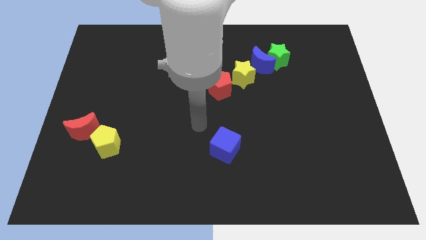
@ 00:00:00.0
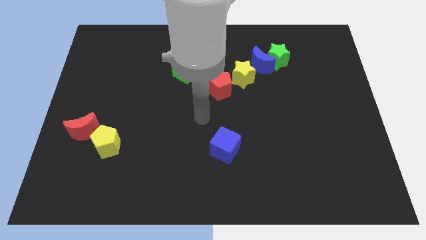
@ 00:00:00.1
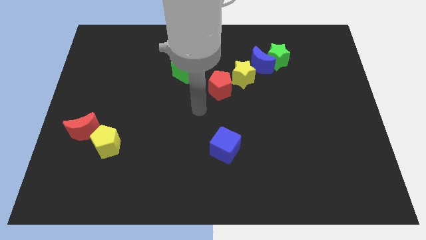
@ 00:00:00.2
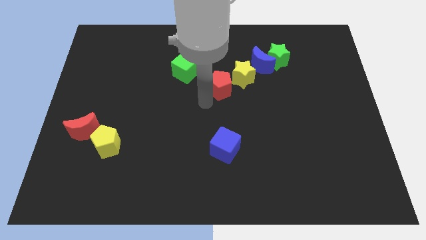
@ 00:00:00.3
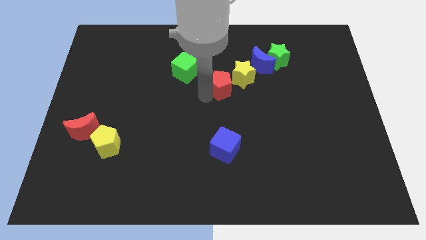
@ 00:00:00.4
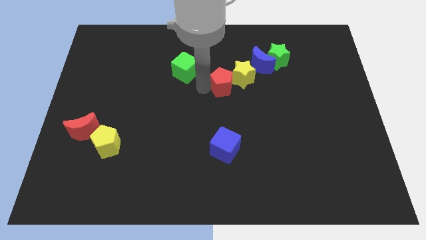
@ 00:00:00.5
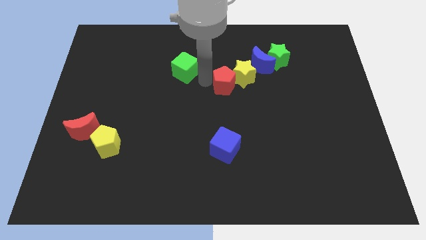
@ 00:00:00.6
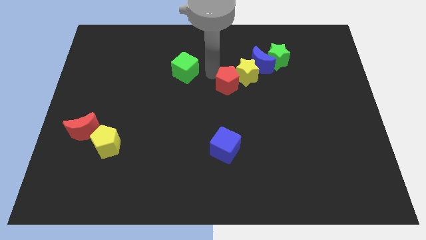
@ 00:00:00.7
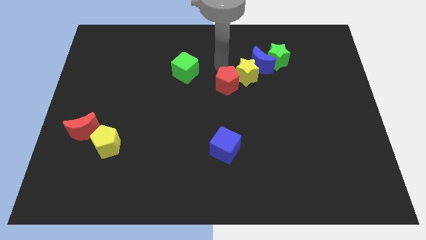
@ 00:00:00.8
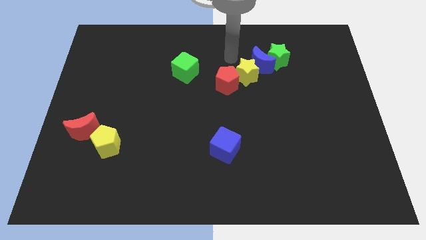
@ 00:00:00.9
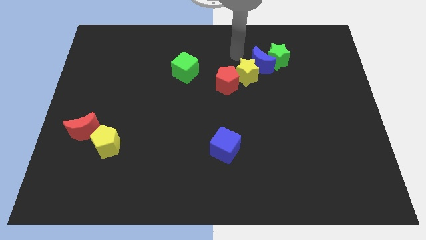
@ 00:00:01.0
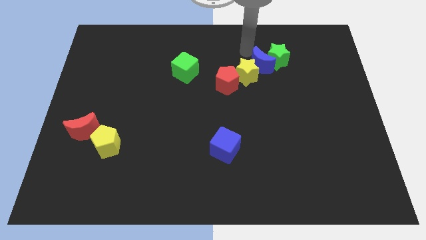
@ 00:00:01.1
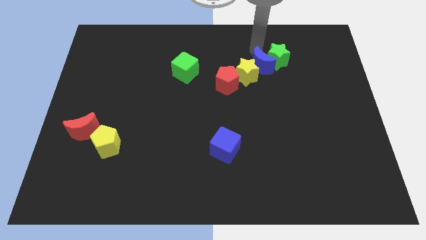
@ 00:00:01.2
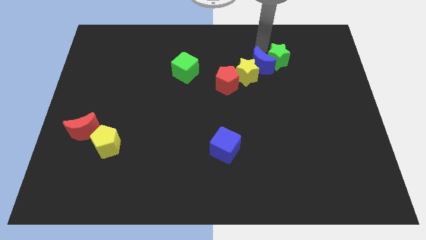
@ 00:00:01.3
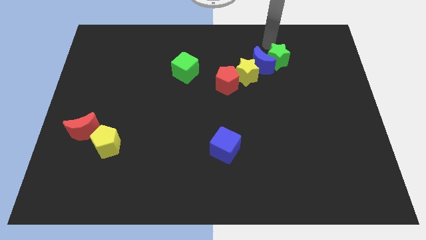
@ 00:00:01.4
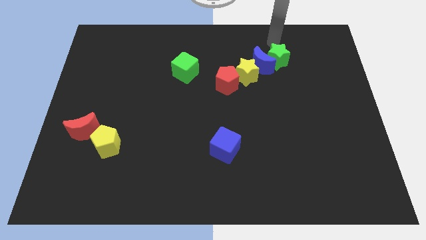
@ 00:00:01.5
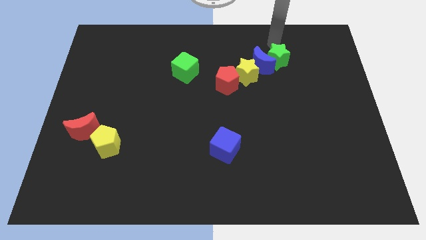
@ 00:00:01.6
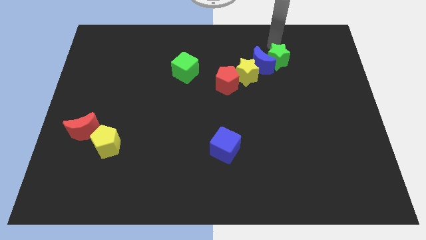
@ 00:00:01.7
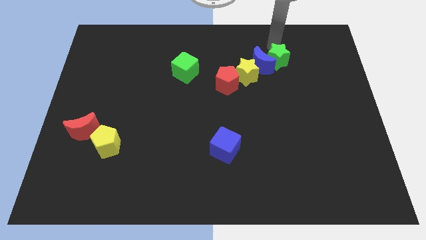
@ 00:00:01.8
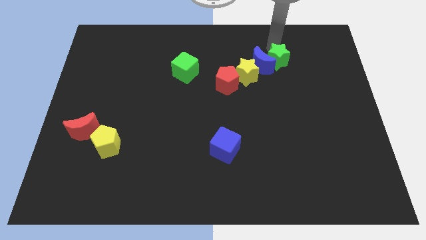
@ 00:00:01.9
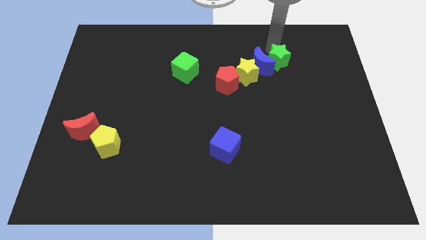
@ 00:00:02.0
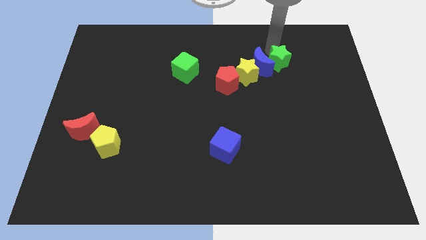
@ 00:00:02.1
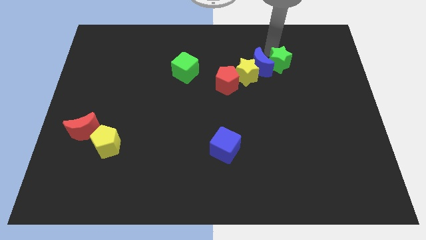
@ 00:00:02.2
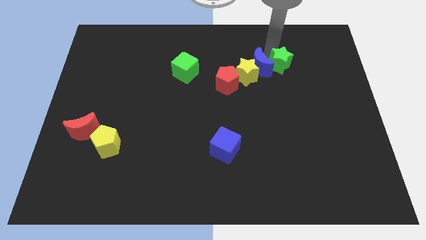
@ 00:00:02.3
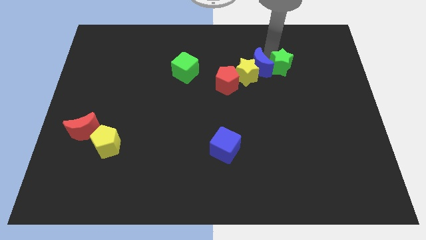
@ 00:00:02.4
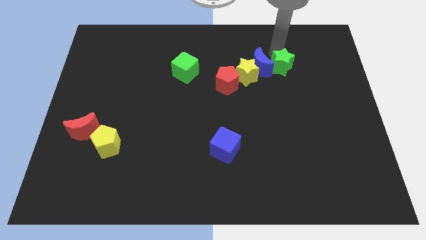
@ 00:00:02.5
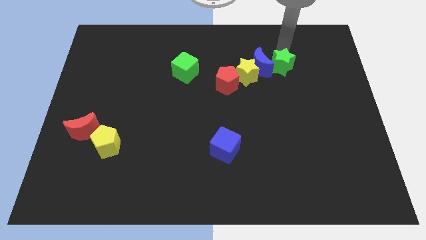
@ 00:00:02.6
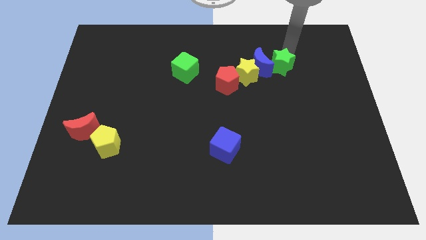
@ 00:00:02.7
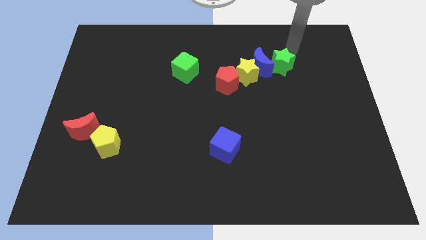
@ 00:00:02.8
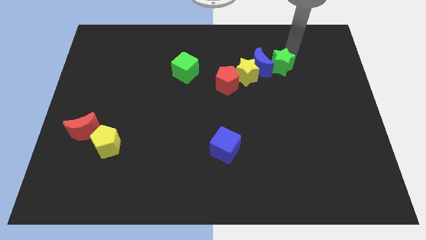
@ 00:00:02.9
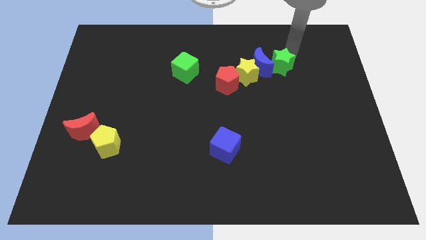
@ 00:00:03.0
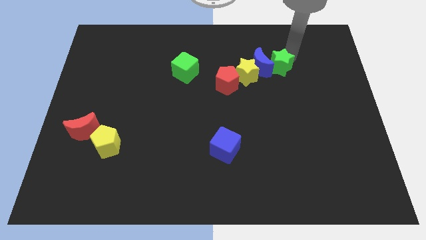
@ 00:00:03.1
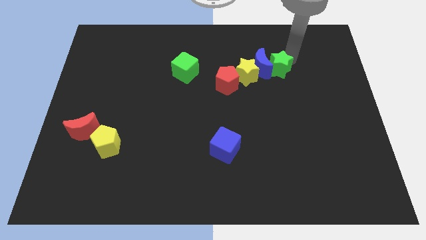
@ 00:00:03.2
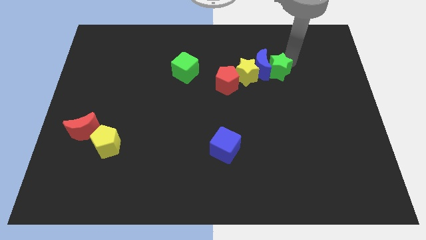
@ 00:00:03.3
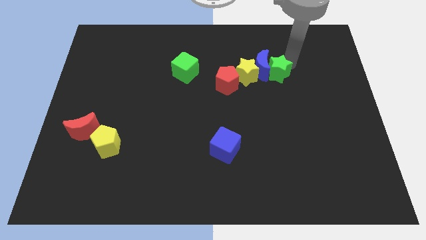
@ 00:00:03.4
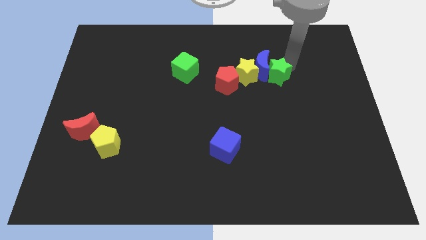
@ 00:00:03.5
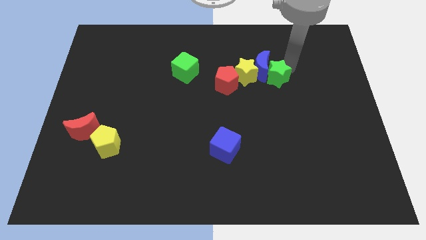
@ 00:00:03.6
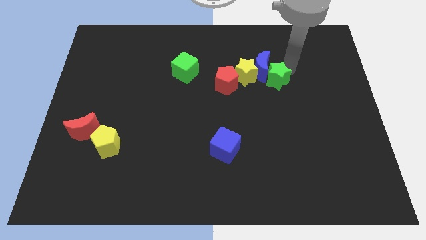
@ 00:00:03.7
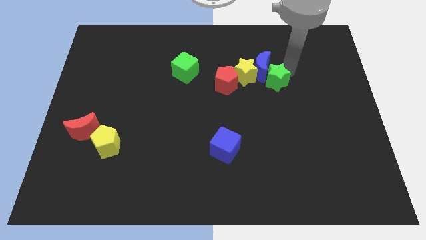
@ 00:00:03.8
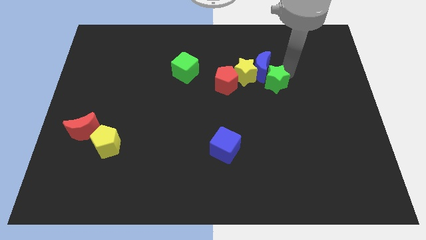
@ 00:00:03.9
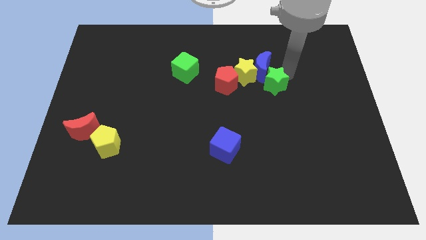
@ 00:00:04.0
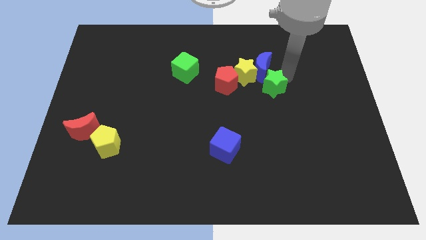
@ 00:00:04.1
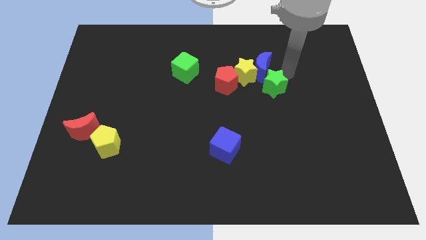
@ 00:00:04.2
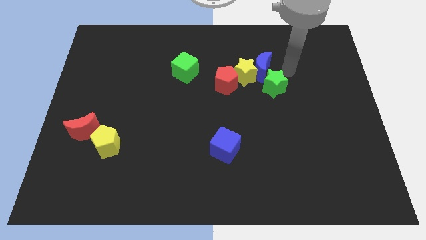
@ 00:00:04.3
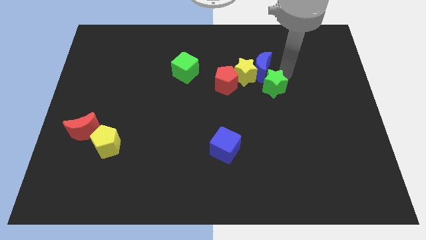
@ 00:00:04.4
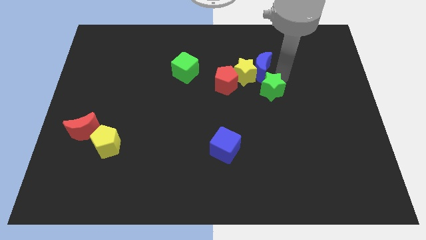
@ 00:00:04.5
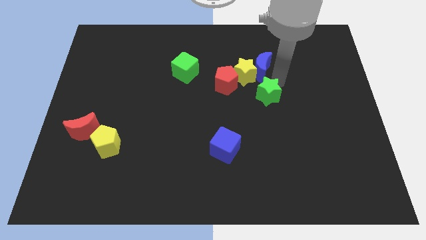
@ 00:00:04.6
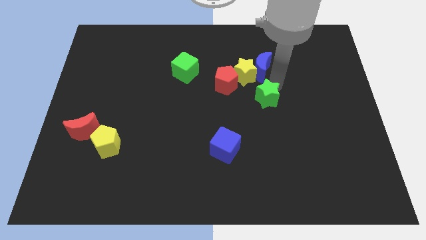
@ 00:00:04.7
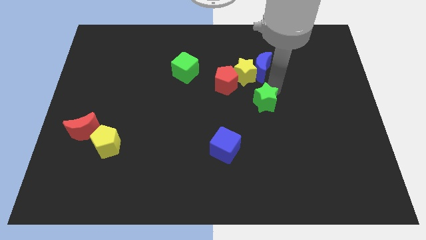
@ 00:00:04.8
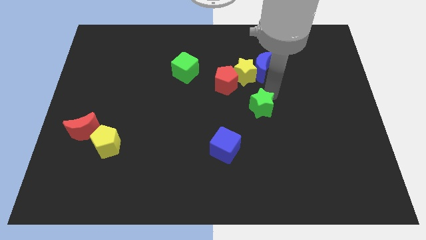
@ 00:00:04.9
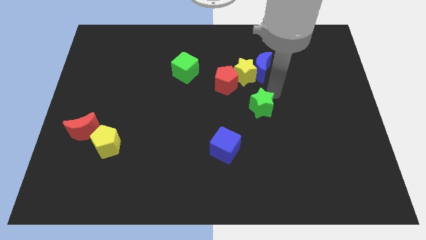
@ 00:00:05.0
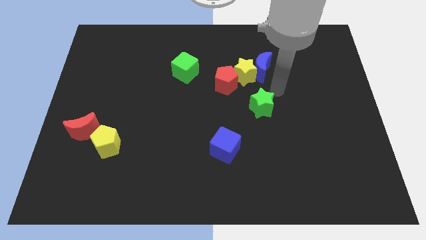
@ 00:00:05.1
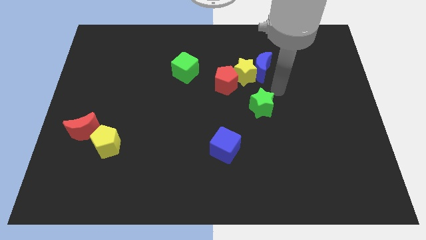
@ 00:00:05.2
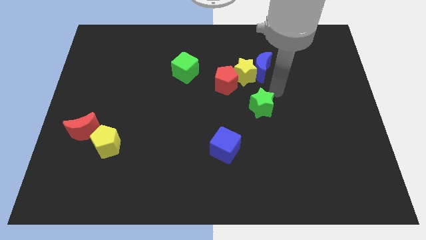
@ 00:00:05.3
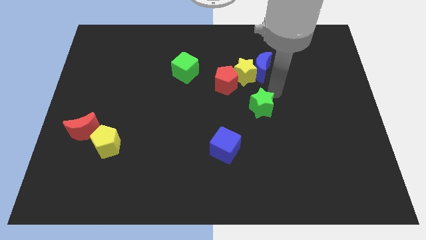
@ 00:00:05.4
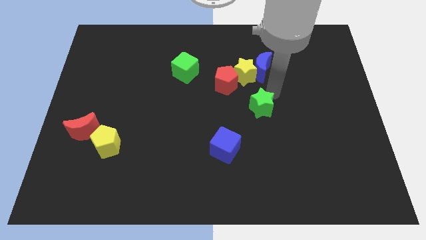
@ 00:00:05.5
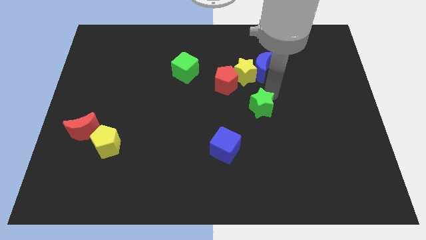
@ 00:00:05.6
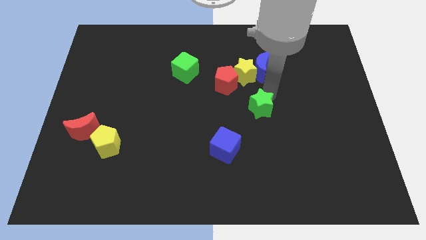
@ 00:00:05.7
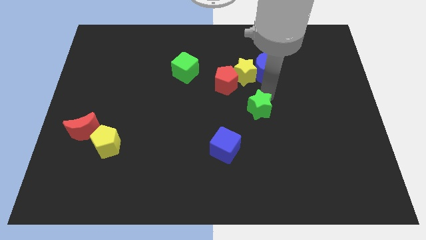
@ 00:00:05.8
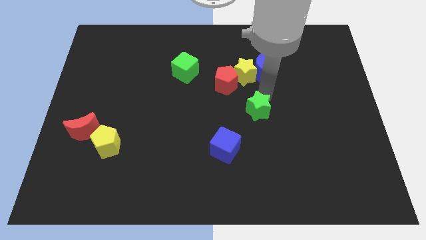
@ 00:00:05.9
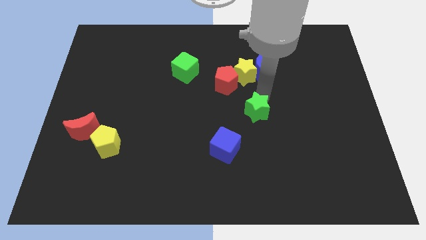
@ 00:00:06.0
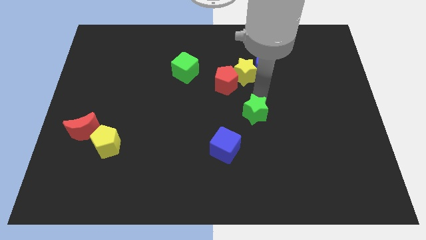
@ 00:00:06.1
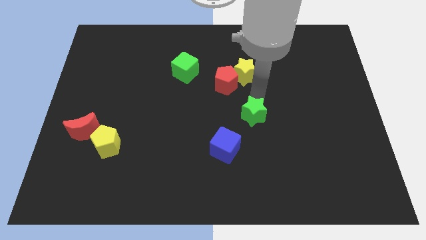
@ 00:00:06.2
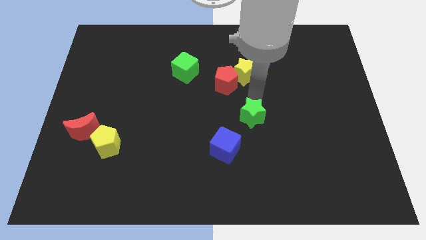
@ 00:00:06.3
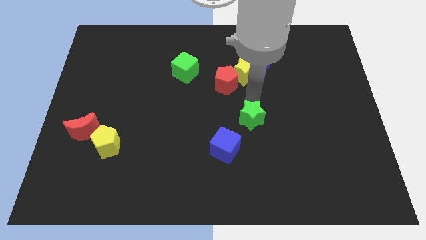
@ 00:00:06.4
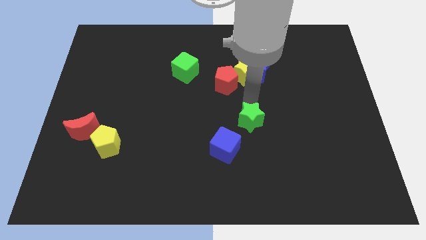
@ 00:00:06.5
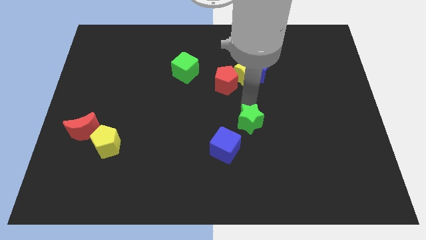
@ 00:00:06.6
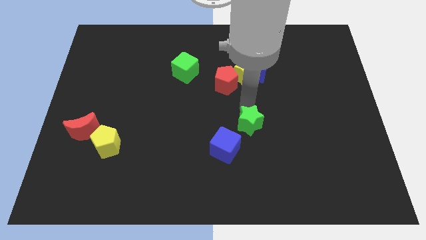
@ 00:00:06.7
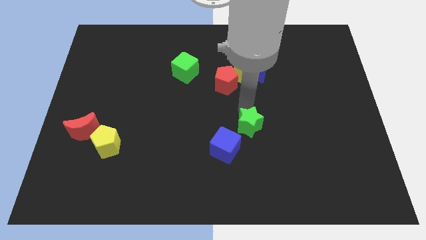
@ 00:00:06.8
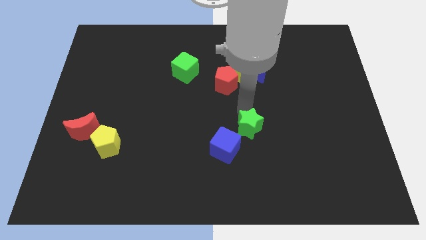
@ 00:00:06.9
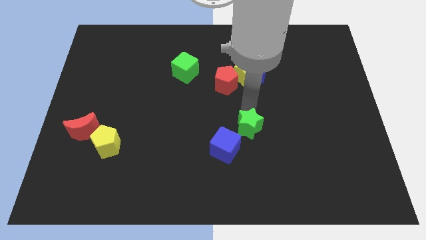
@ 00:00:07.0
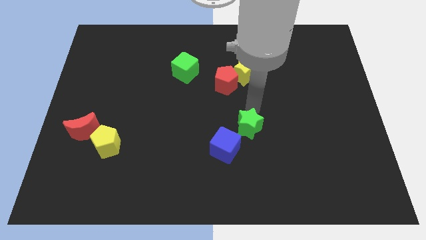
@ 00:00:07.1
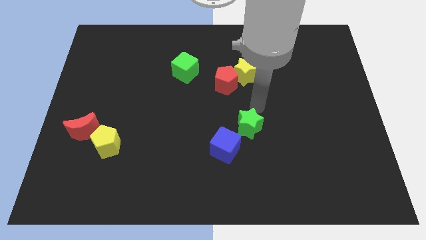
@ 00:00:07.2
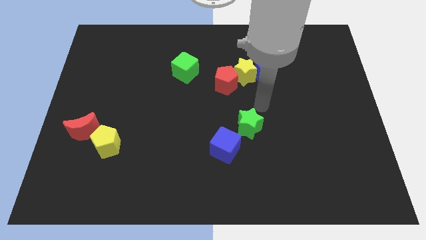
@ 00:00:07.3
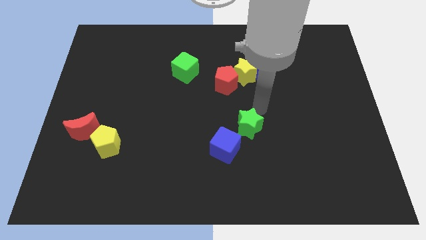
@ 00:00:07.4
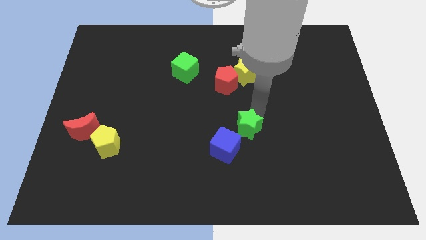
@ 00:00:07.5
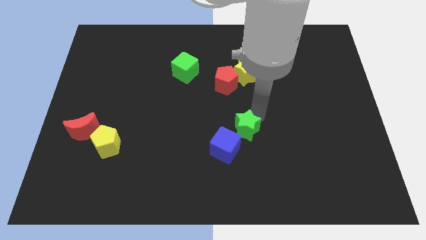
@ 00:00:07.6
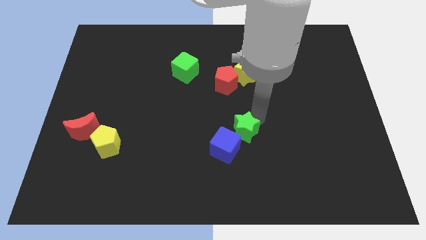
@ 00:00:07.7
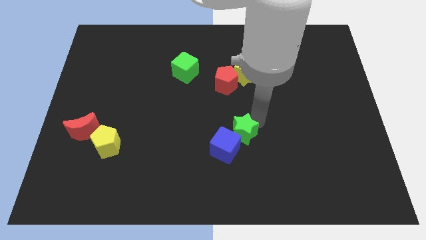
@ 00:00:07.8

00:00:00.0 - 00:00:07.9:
push the green star close to the blue cube
